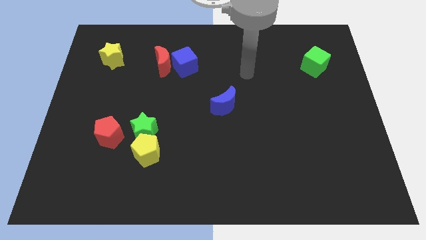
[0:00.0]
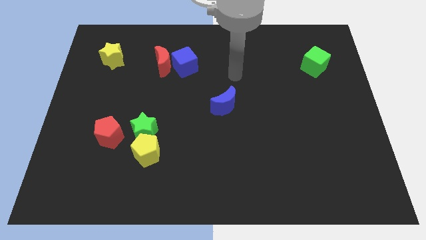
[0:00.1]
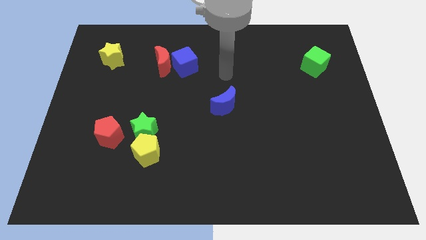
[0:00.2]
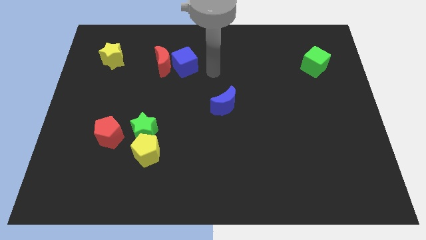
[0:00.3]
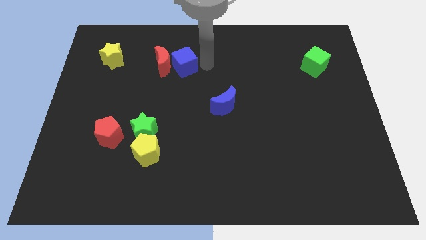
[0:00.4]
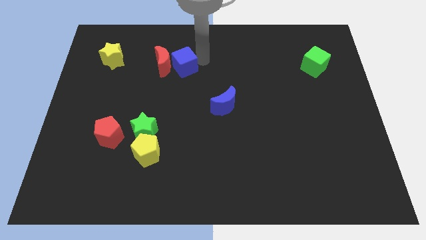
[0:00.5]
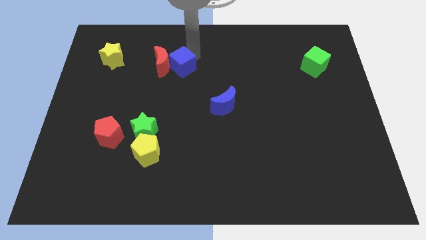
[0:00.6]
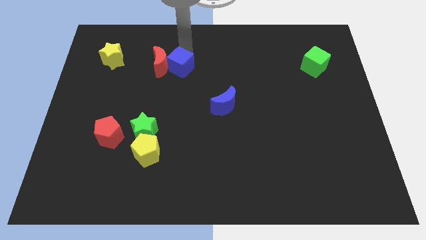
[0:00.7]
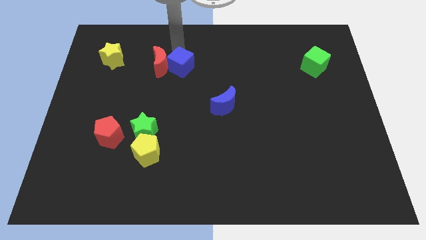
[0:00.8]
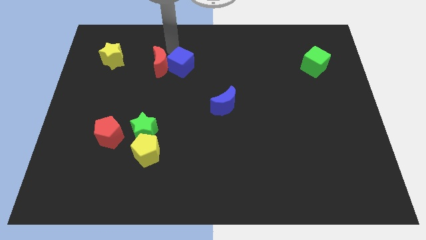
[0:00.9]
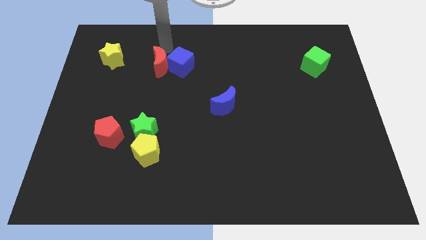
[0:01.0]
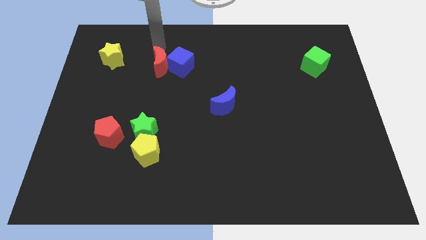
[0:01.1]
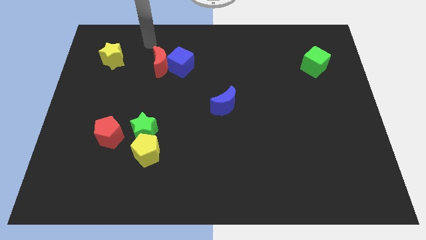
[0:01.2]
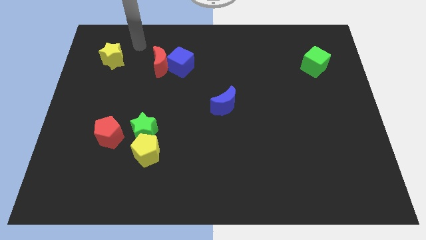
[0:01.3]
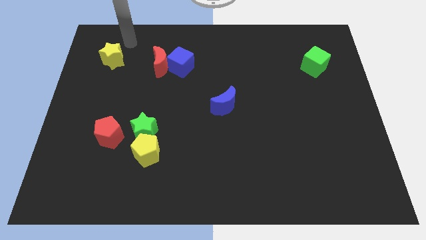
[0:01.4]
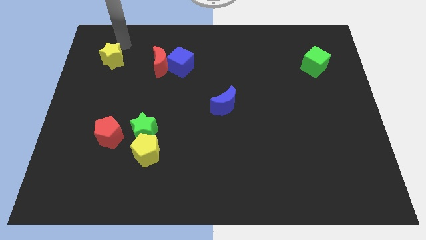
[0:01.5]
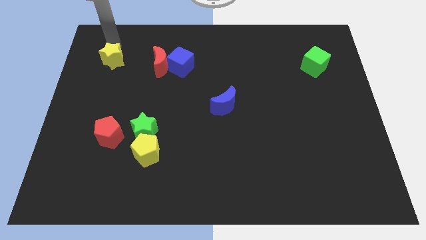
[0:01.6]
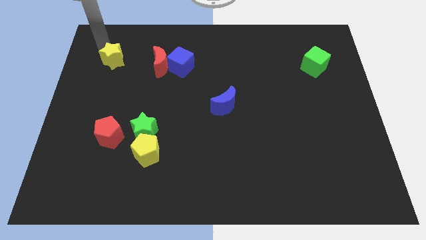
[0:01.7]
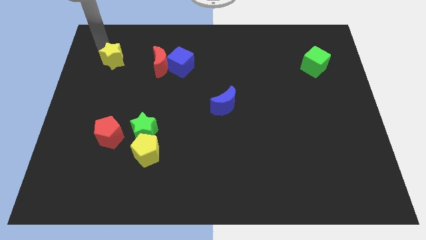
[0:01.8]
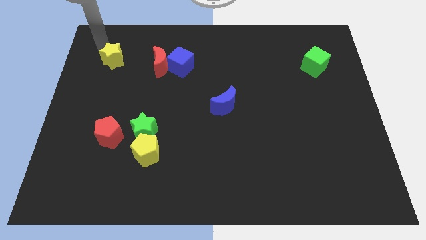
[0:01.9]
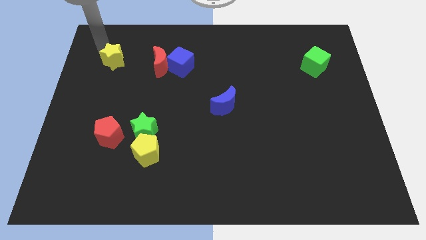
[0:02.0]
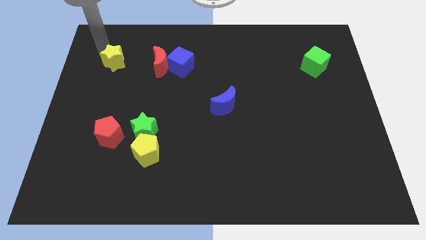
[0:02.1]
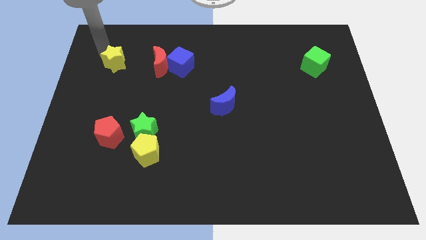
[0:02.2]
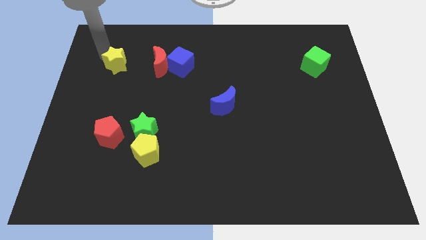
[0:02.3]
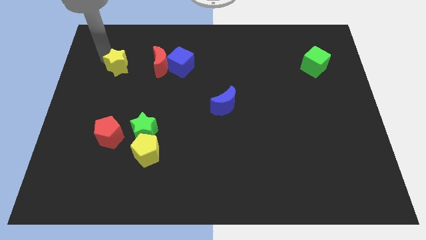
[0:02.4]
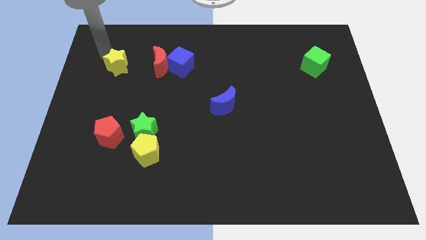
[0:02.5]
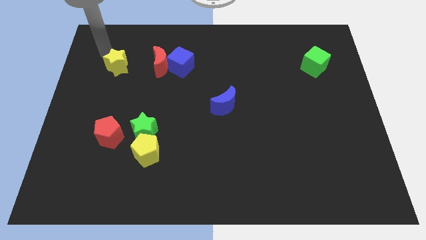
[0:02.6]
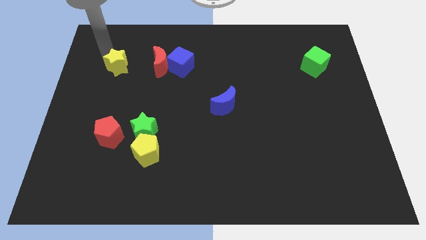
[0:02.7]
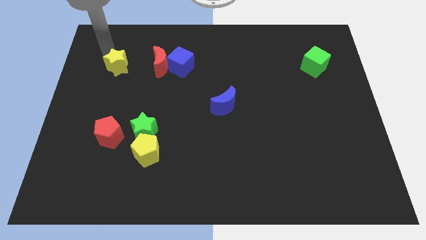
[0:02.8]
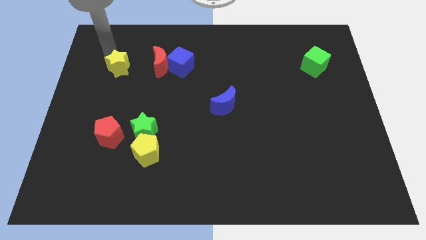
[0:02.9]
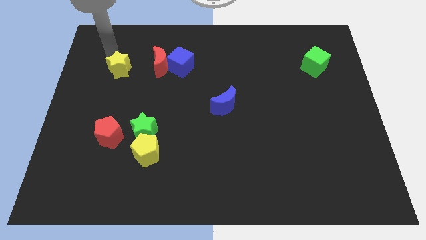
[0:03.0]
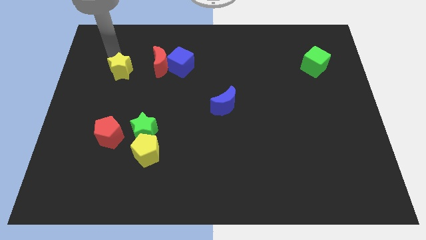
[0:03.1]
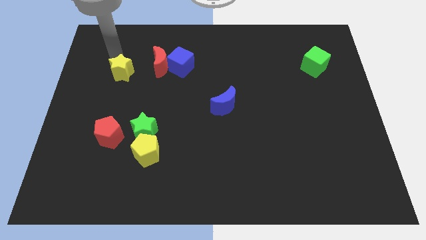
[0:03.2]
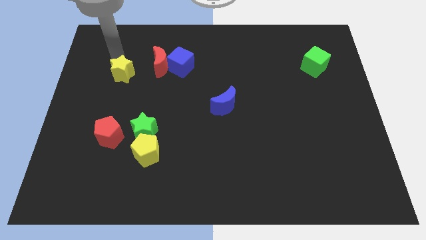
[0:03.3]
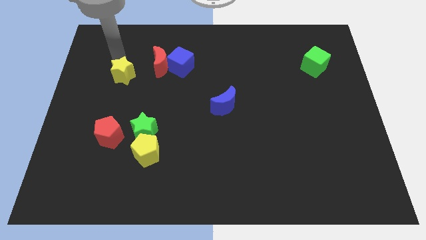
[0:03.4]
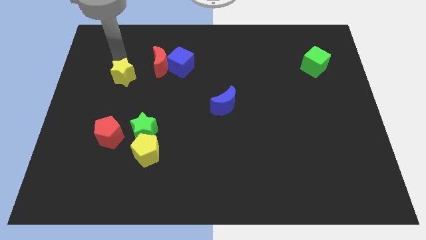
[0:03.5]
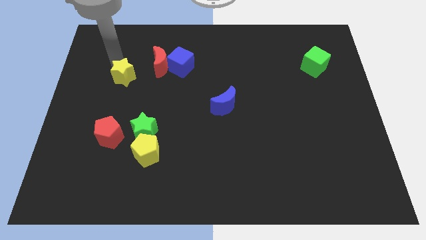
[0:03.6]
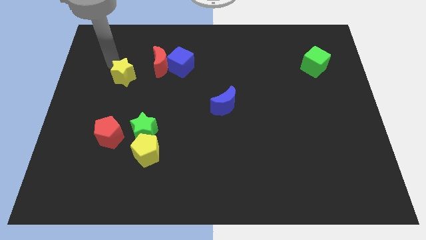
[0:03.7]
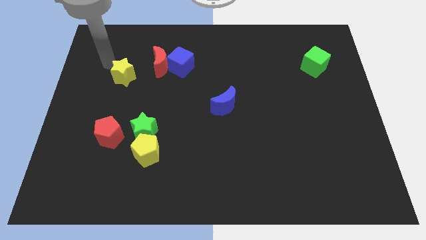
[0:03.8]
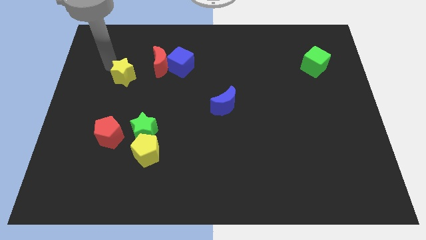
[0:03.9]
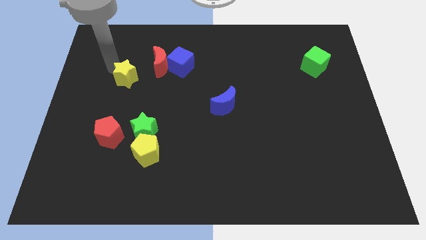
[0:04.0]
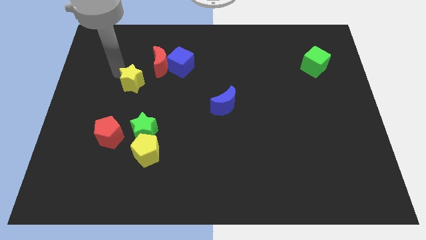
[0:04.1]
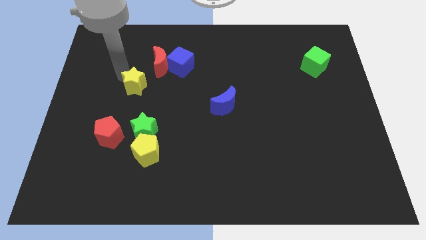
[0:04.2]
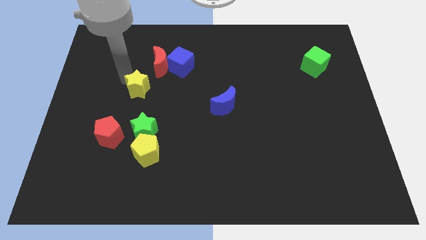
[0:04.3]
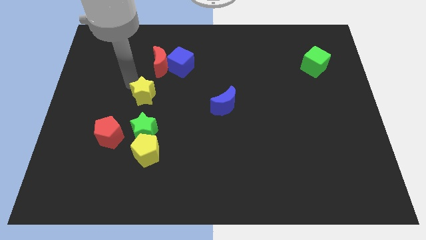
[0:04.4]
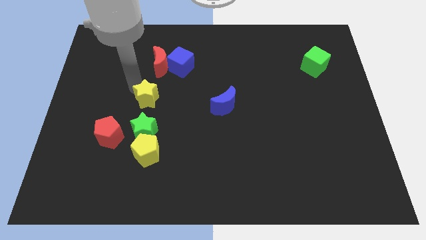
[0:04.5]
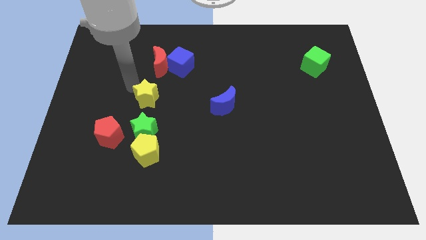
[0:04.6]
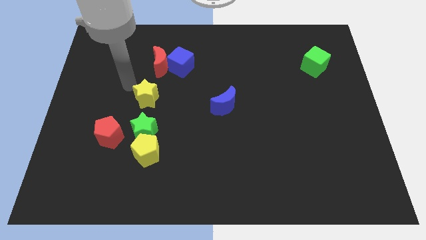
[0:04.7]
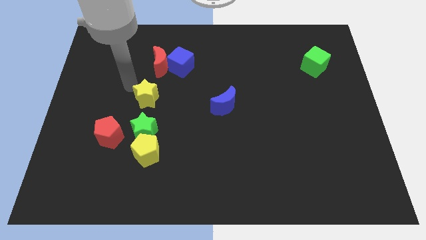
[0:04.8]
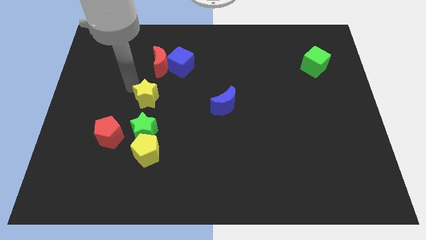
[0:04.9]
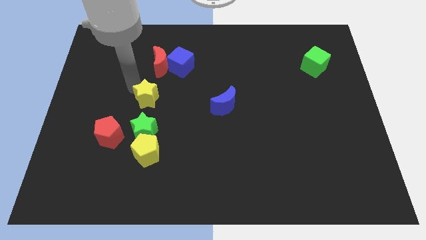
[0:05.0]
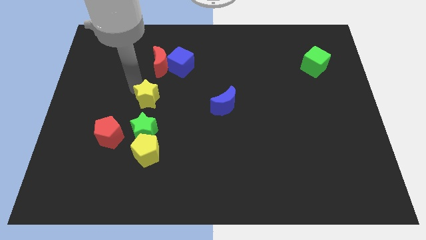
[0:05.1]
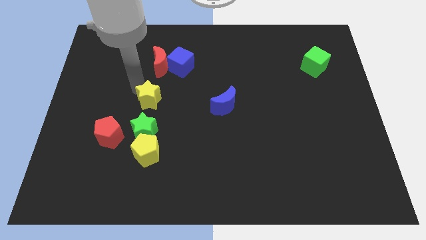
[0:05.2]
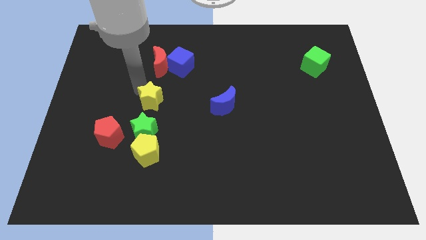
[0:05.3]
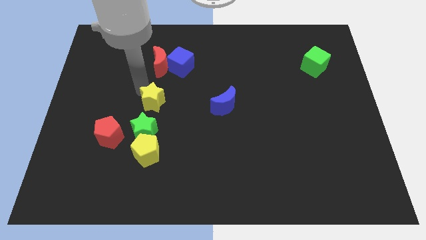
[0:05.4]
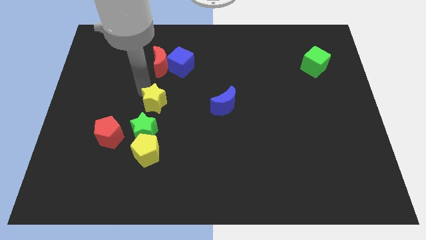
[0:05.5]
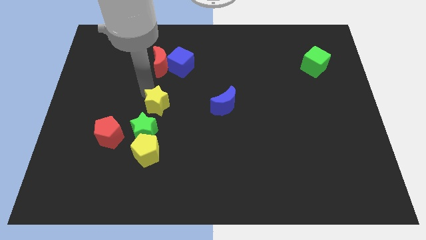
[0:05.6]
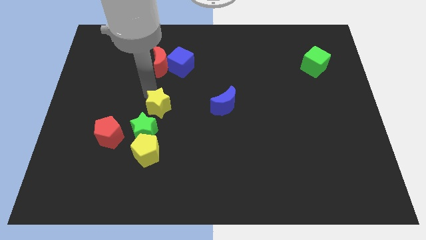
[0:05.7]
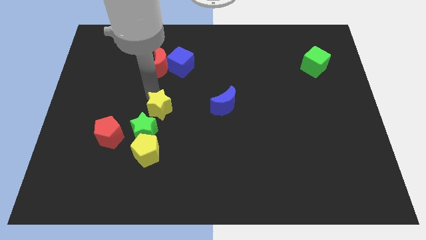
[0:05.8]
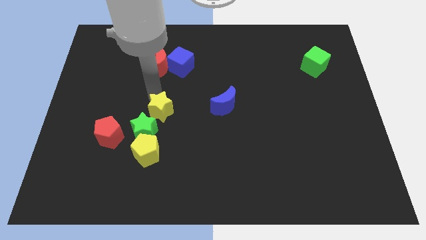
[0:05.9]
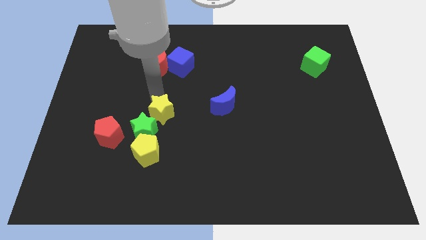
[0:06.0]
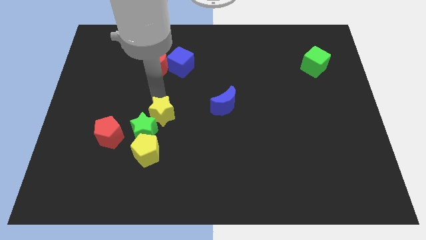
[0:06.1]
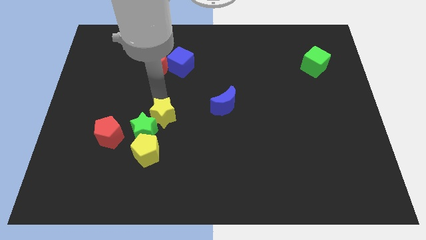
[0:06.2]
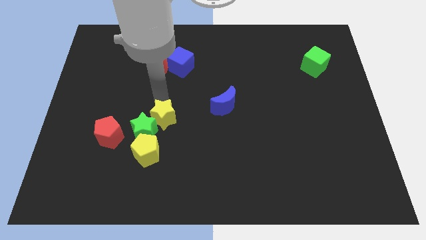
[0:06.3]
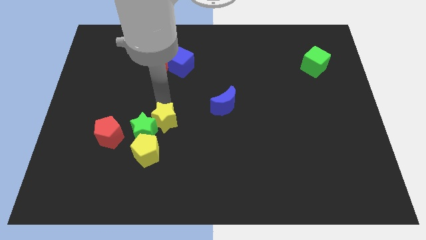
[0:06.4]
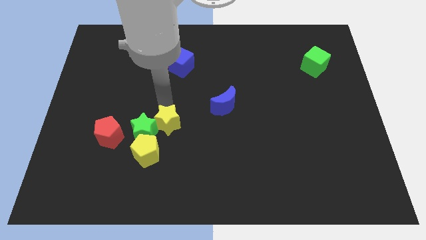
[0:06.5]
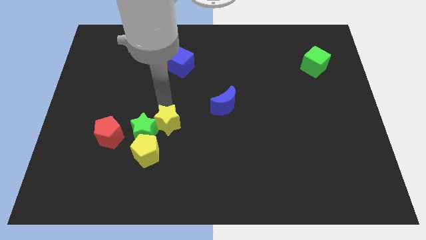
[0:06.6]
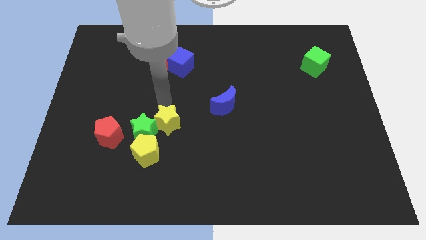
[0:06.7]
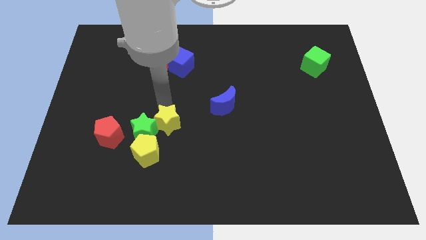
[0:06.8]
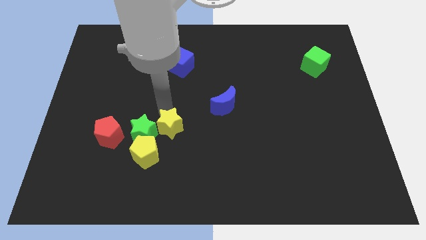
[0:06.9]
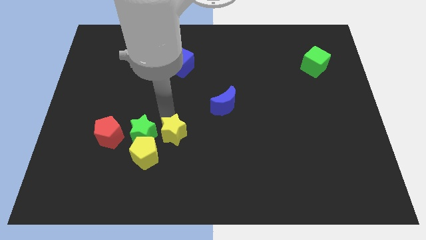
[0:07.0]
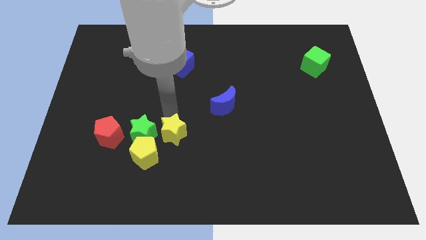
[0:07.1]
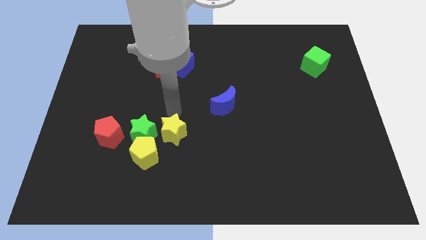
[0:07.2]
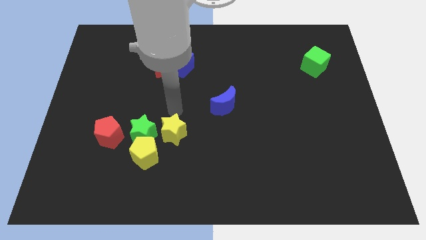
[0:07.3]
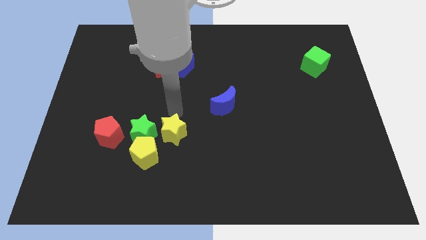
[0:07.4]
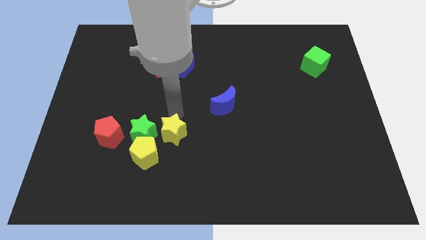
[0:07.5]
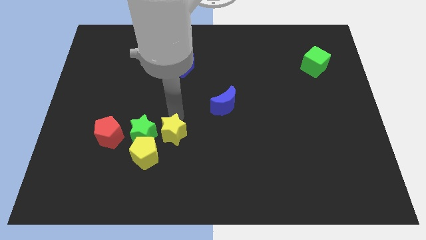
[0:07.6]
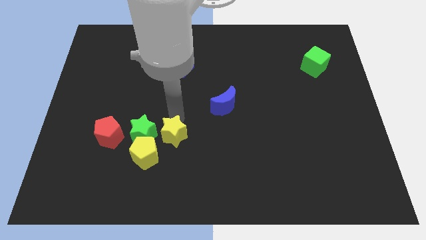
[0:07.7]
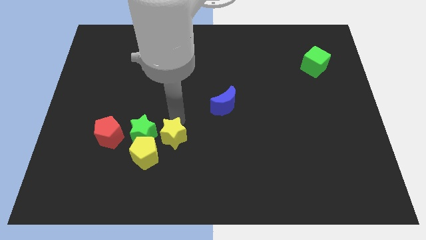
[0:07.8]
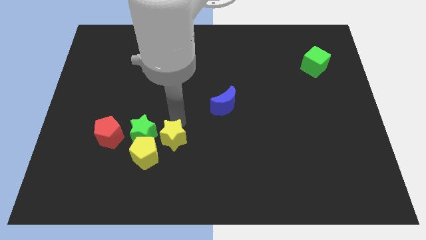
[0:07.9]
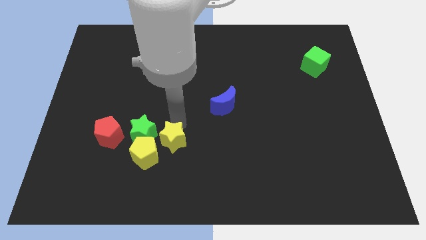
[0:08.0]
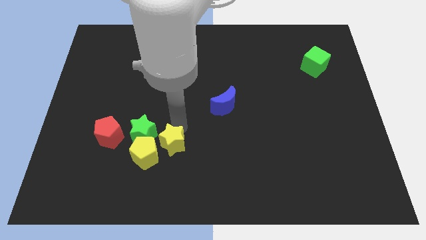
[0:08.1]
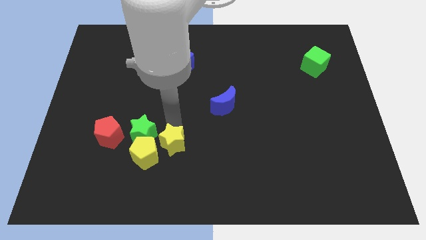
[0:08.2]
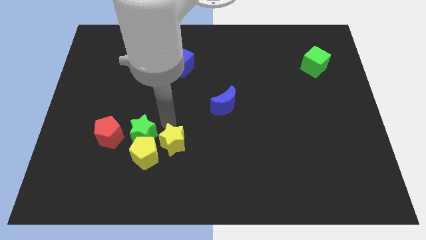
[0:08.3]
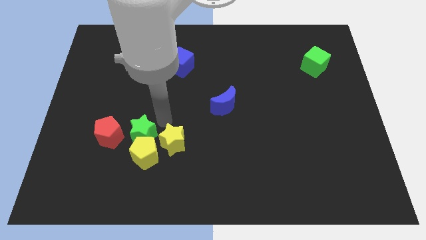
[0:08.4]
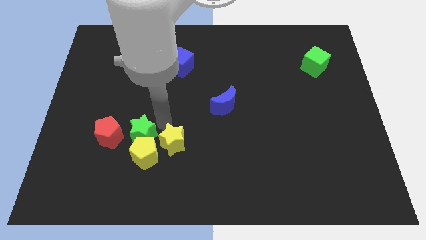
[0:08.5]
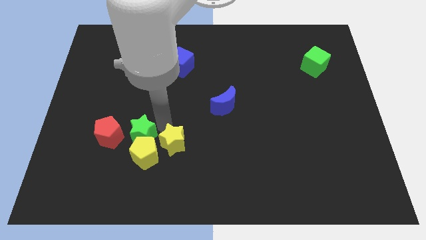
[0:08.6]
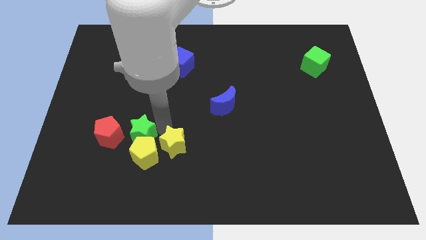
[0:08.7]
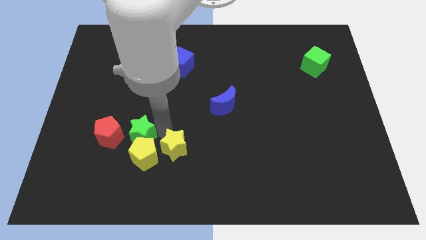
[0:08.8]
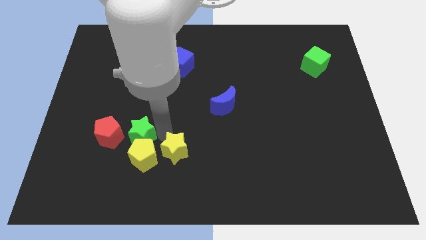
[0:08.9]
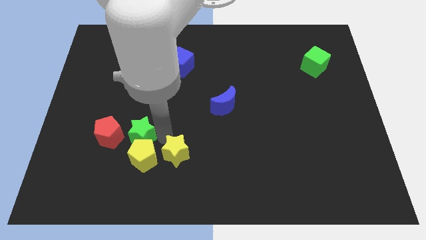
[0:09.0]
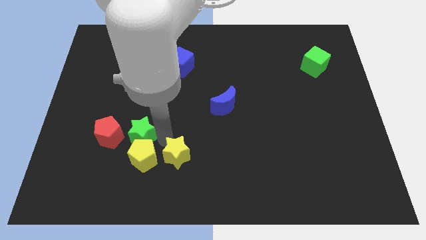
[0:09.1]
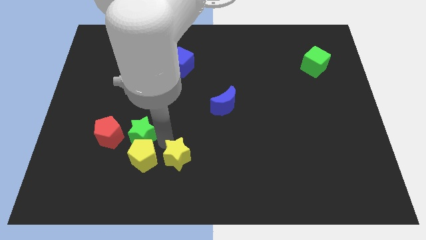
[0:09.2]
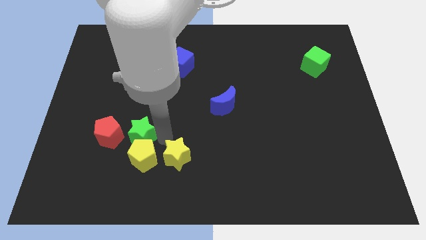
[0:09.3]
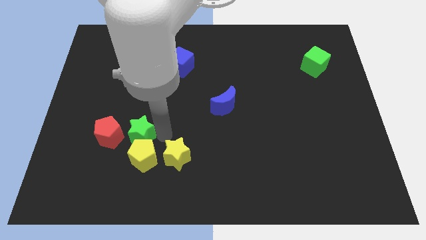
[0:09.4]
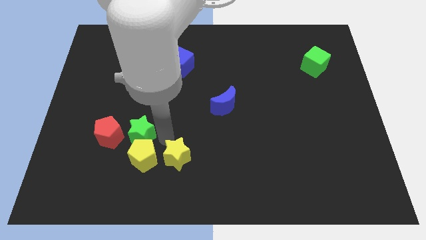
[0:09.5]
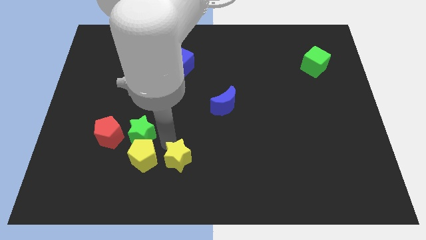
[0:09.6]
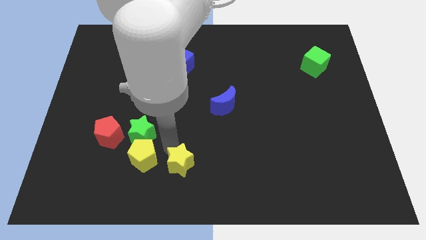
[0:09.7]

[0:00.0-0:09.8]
slide the yellow star to the bottom
